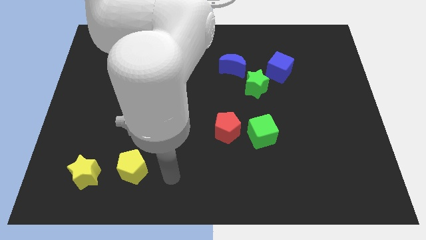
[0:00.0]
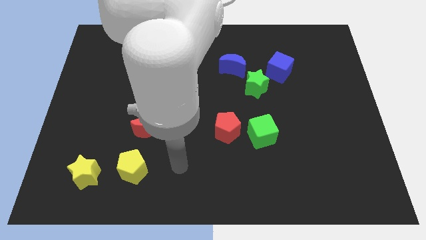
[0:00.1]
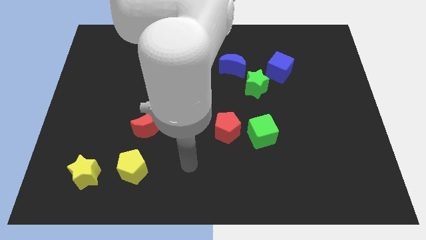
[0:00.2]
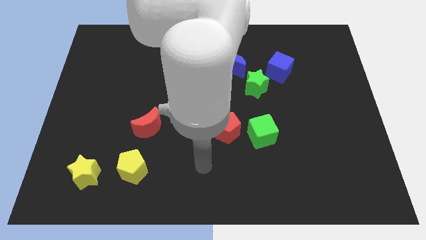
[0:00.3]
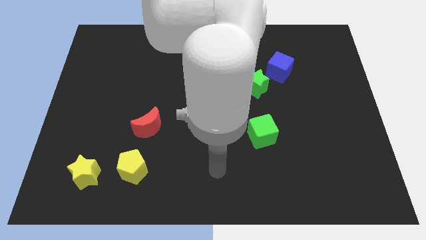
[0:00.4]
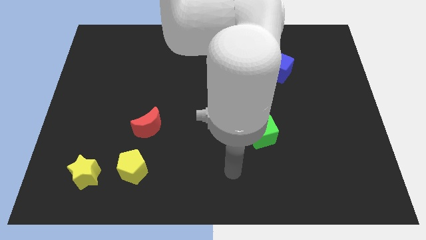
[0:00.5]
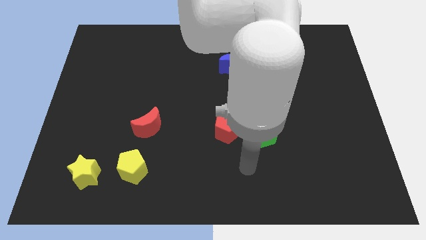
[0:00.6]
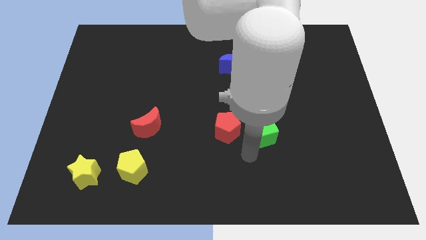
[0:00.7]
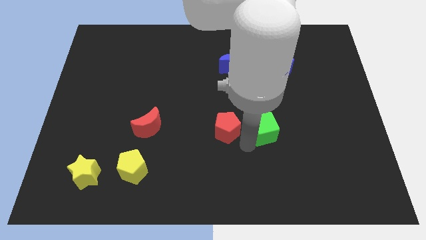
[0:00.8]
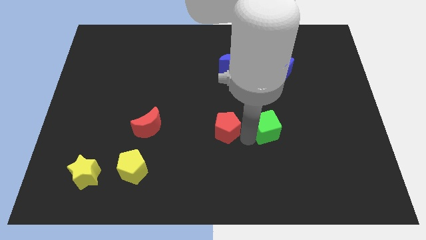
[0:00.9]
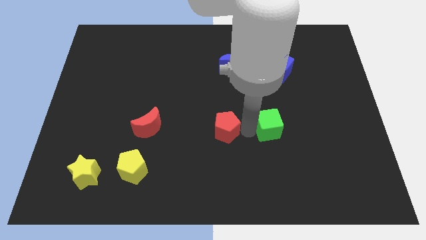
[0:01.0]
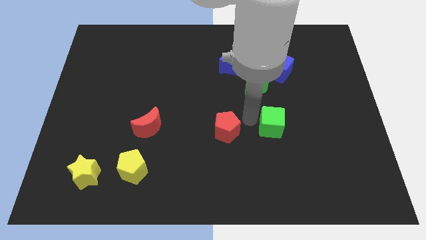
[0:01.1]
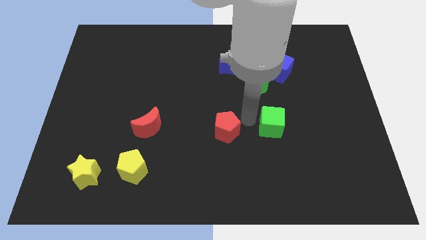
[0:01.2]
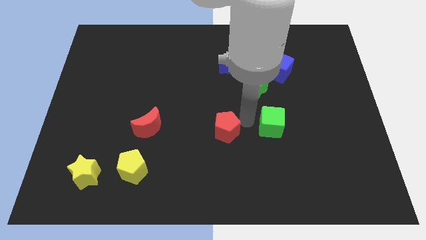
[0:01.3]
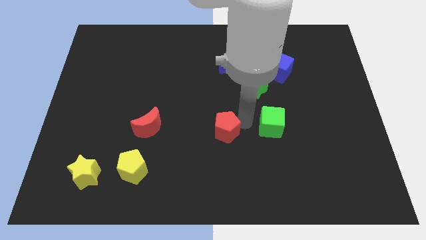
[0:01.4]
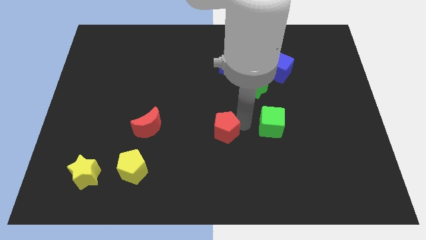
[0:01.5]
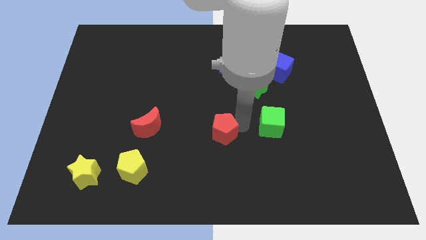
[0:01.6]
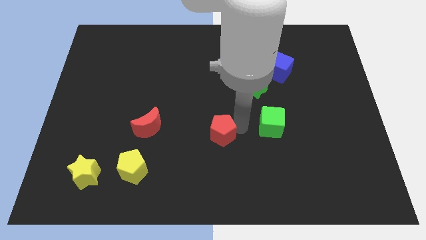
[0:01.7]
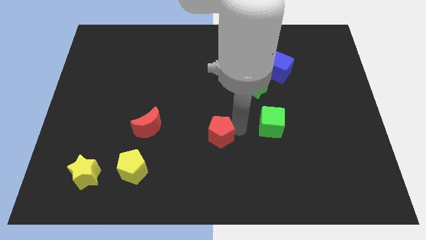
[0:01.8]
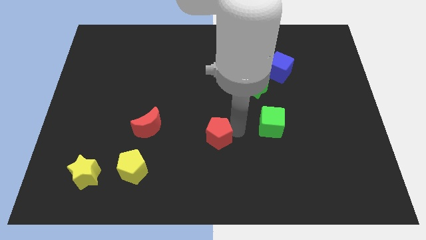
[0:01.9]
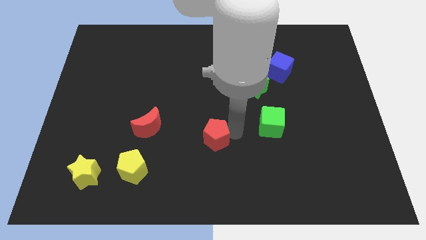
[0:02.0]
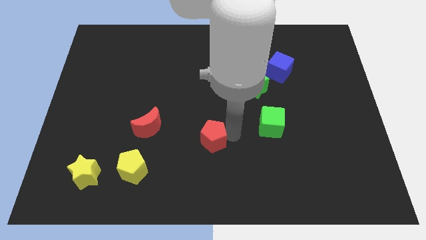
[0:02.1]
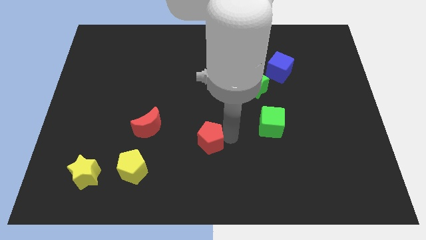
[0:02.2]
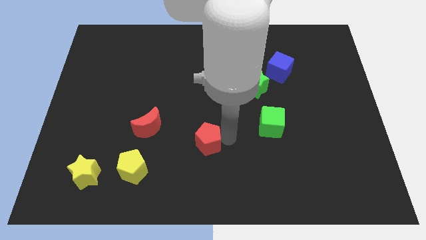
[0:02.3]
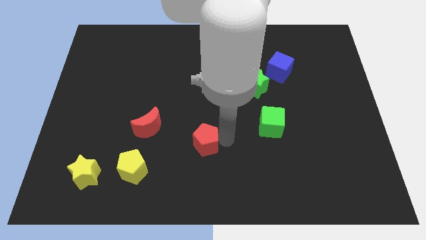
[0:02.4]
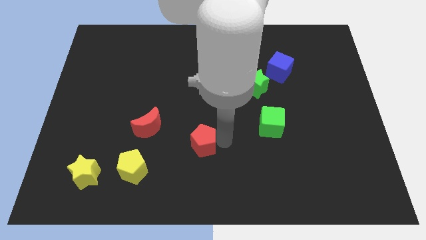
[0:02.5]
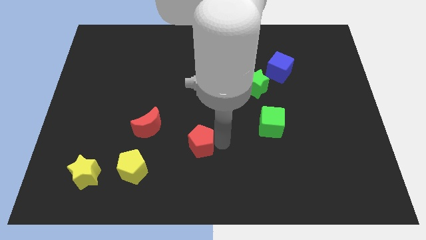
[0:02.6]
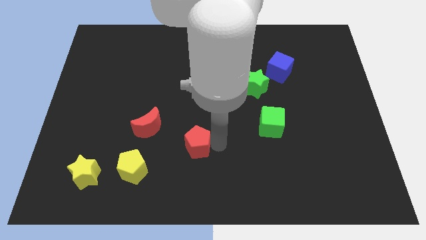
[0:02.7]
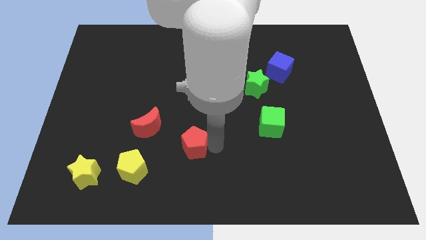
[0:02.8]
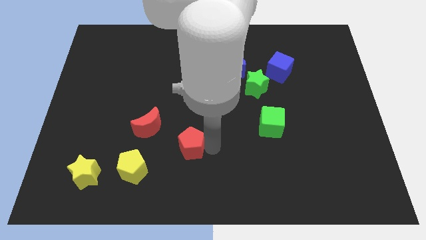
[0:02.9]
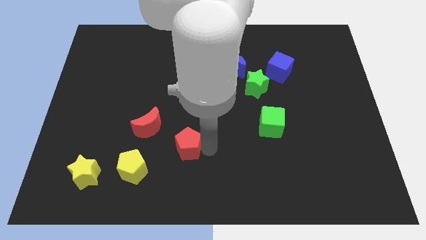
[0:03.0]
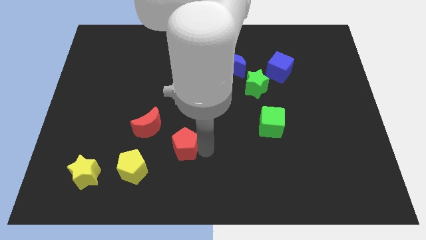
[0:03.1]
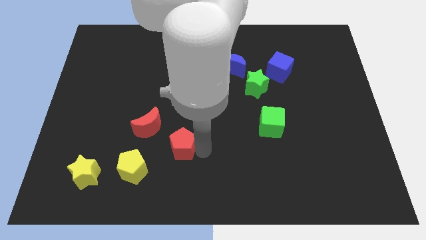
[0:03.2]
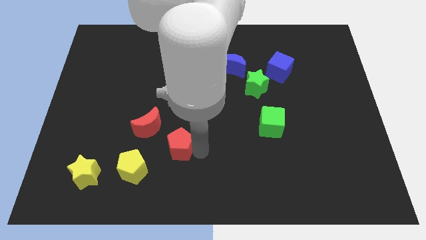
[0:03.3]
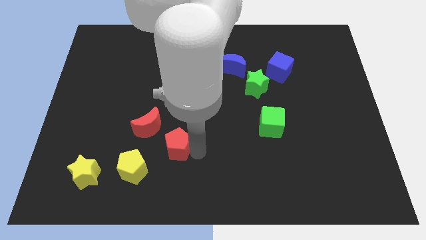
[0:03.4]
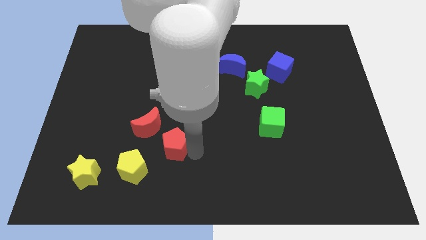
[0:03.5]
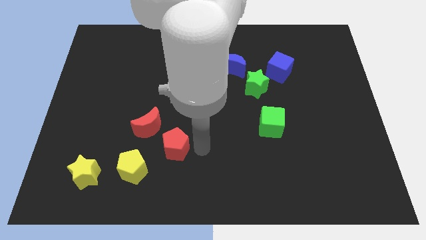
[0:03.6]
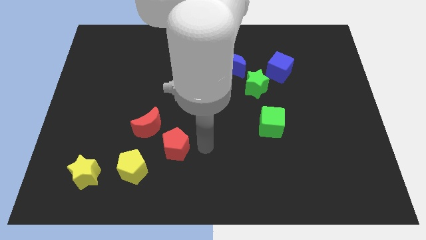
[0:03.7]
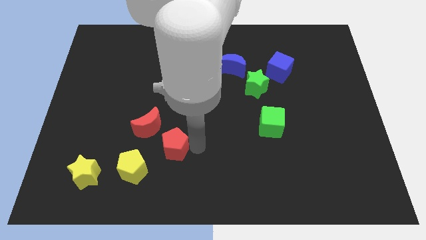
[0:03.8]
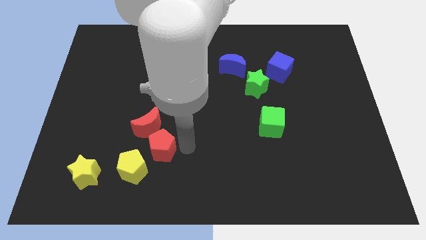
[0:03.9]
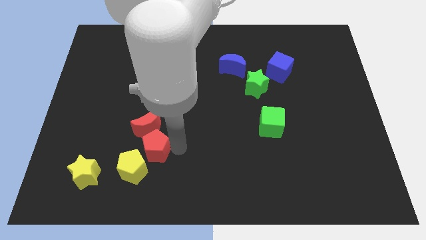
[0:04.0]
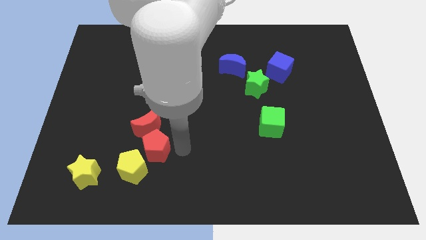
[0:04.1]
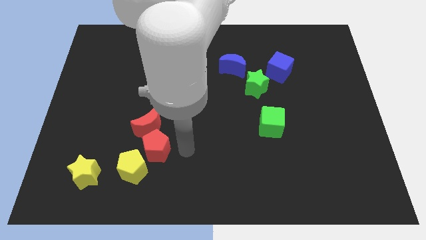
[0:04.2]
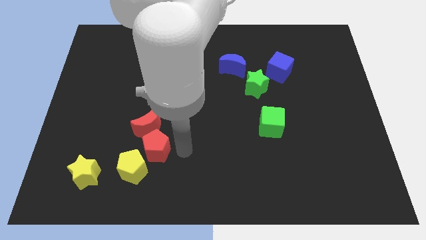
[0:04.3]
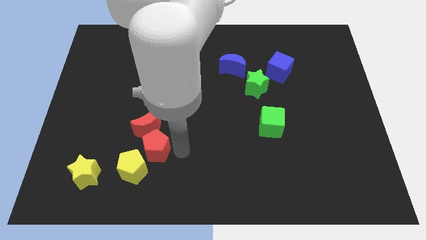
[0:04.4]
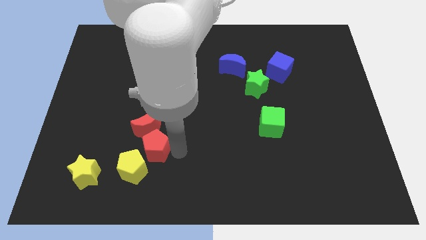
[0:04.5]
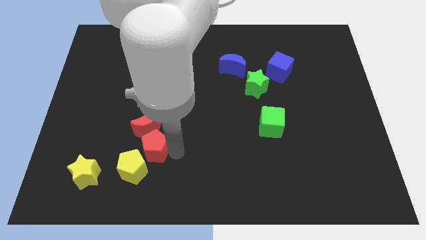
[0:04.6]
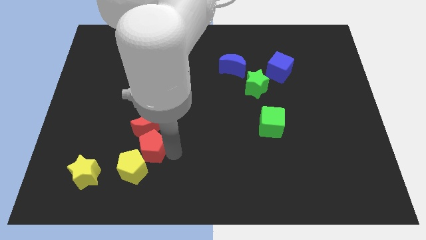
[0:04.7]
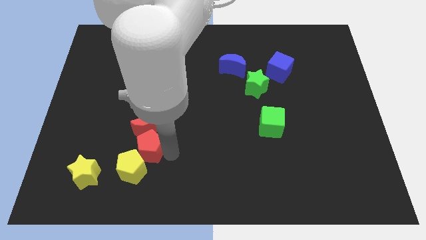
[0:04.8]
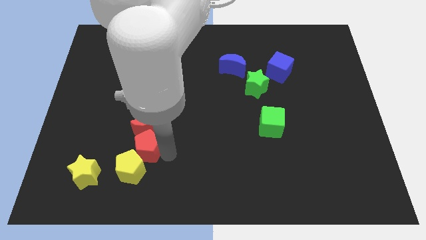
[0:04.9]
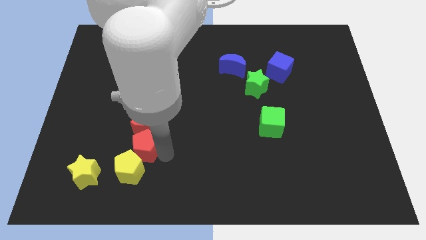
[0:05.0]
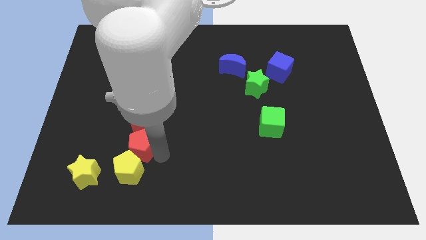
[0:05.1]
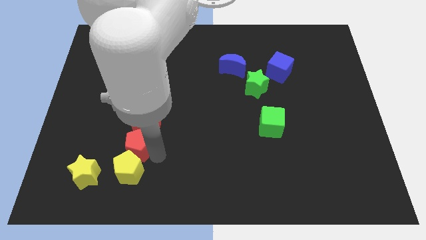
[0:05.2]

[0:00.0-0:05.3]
move the red pentagon diagonally up and to the left of the yellow pentagon

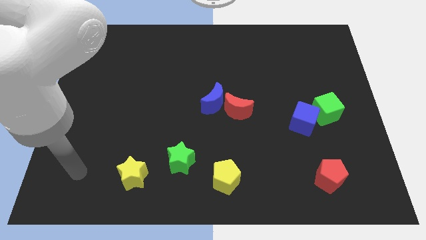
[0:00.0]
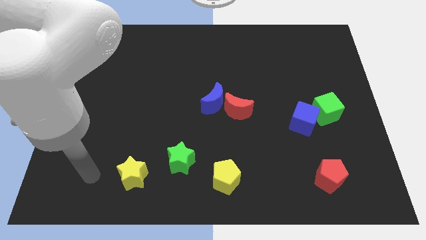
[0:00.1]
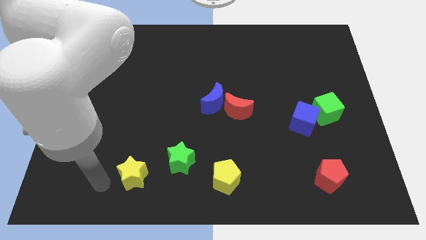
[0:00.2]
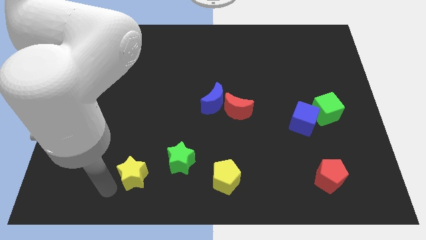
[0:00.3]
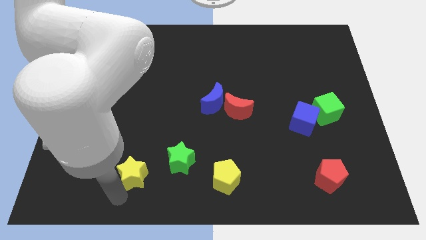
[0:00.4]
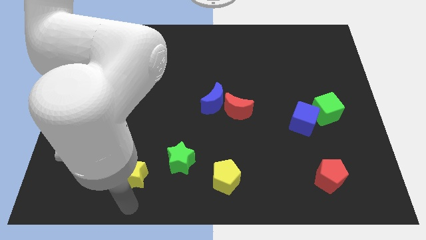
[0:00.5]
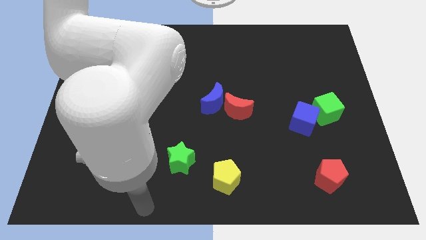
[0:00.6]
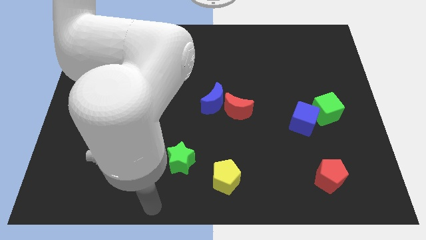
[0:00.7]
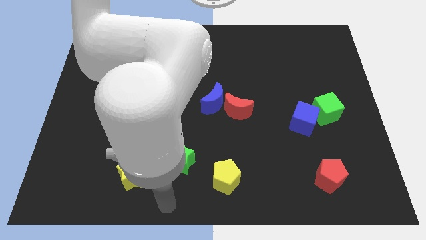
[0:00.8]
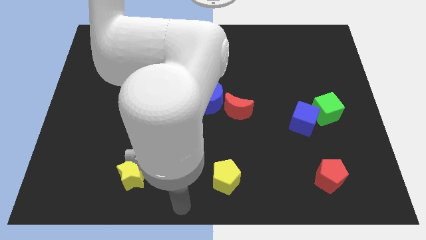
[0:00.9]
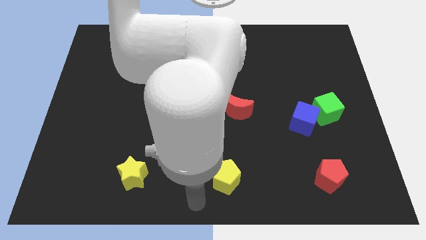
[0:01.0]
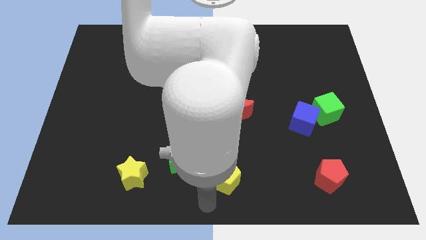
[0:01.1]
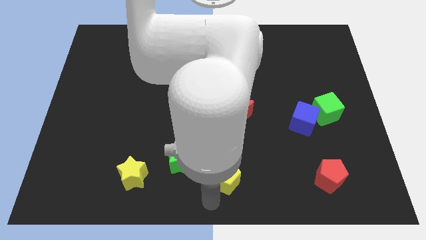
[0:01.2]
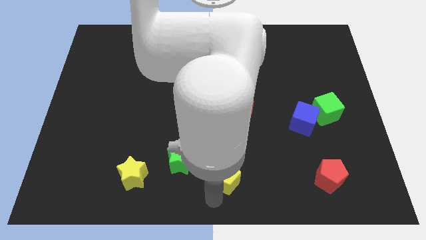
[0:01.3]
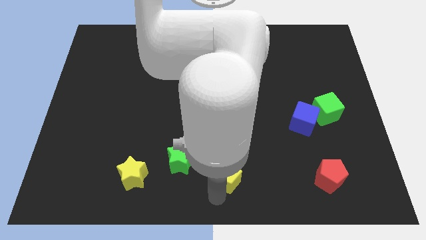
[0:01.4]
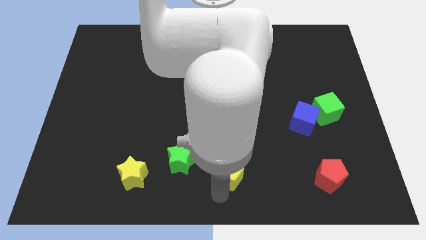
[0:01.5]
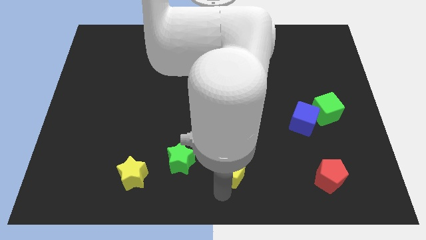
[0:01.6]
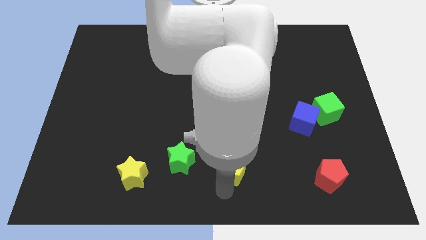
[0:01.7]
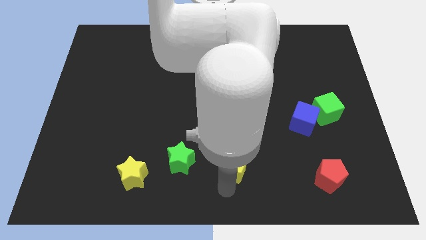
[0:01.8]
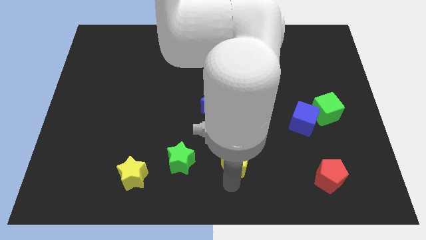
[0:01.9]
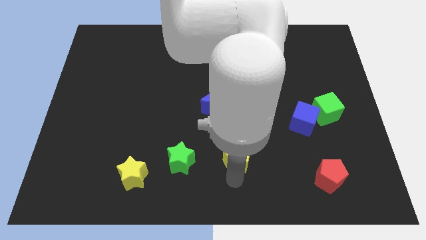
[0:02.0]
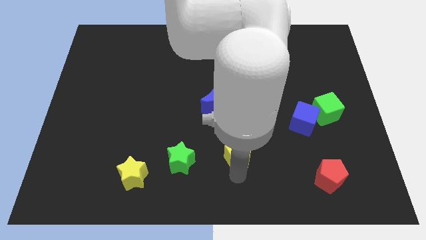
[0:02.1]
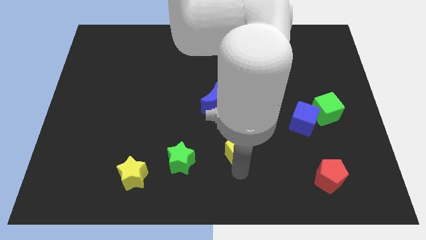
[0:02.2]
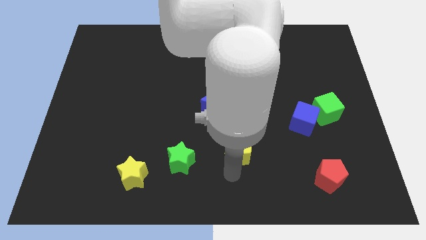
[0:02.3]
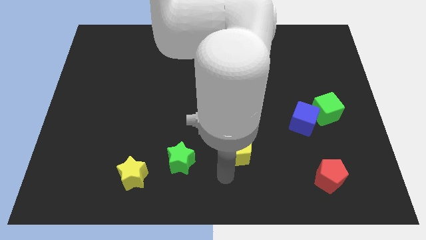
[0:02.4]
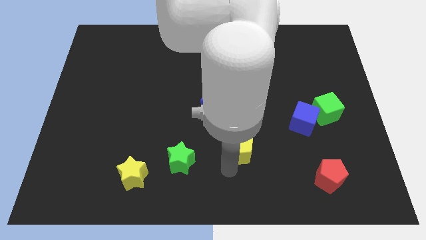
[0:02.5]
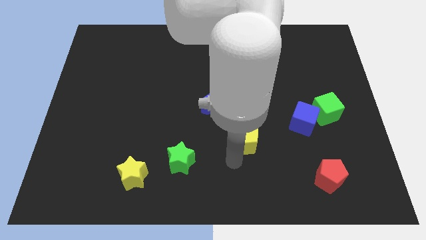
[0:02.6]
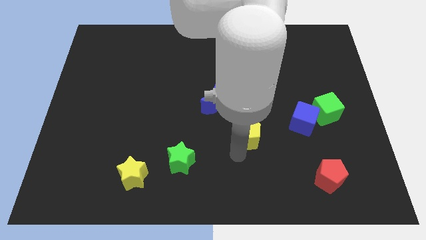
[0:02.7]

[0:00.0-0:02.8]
move the yellow pentagon just left of the blue cube
